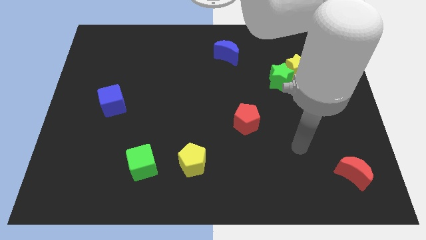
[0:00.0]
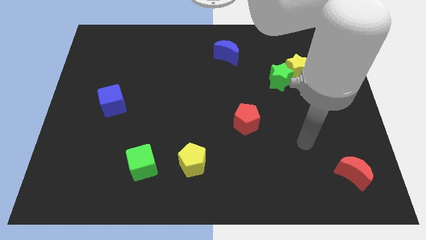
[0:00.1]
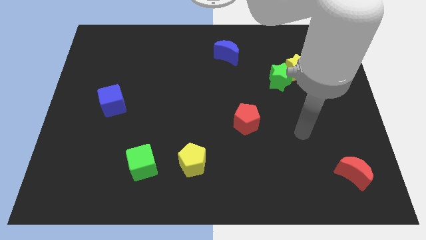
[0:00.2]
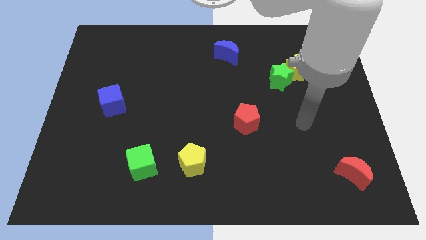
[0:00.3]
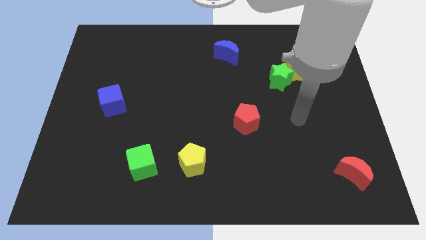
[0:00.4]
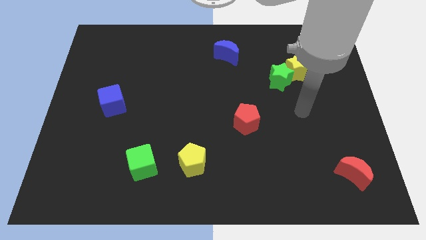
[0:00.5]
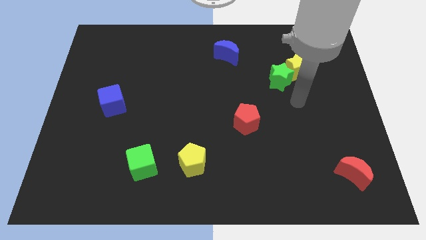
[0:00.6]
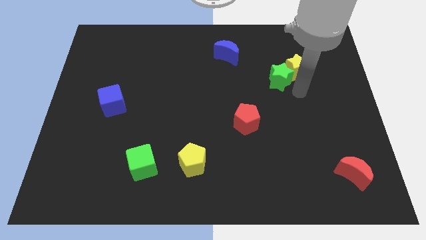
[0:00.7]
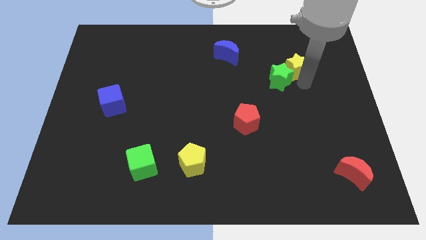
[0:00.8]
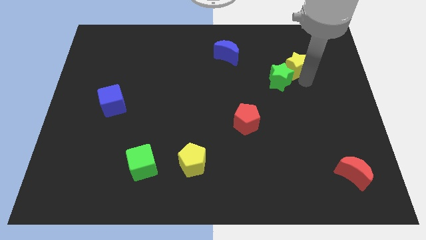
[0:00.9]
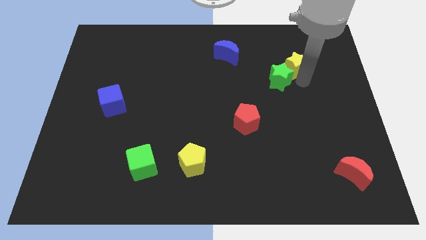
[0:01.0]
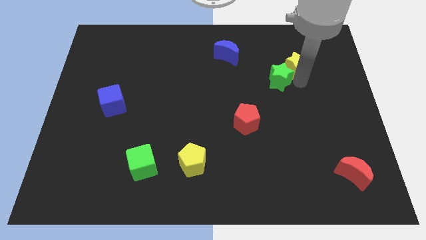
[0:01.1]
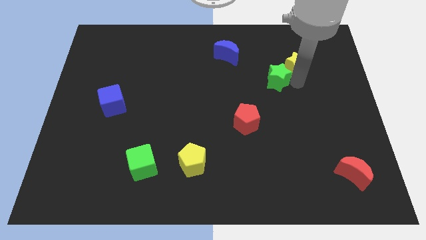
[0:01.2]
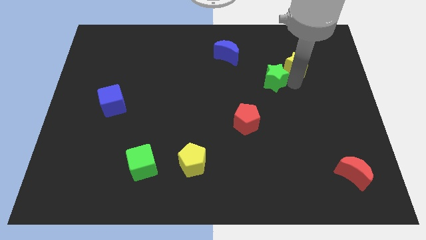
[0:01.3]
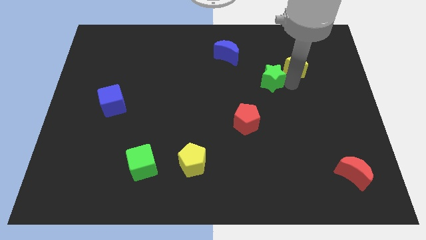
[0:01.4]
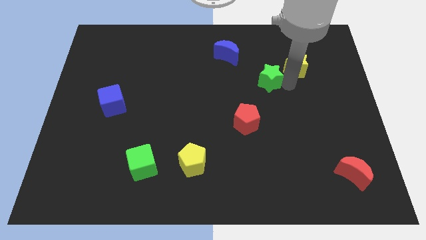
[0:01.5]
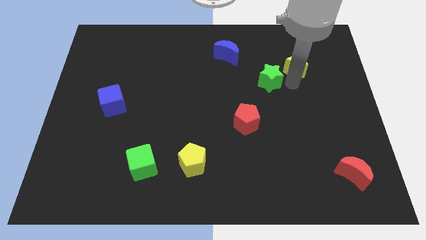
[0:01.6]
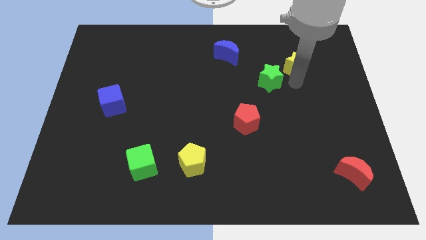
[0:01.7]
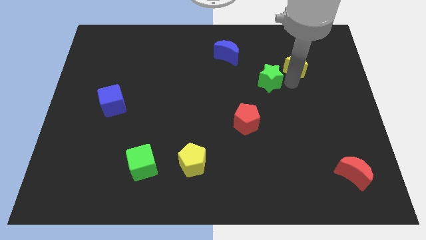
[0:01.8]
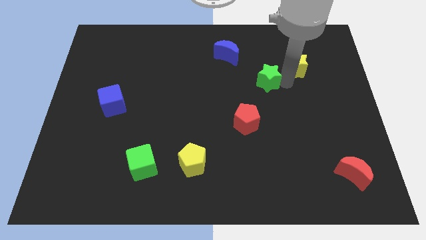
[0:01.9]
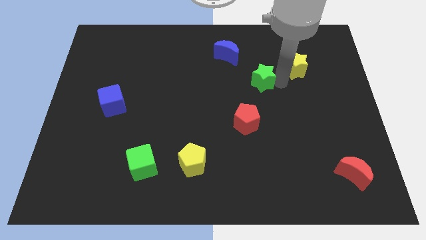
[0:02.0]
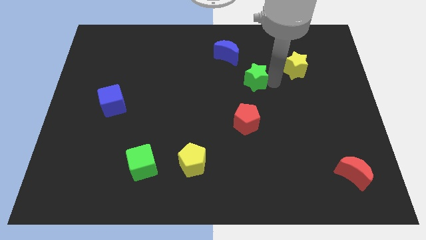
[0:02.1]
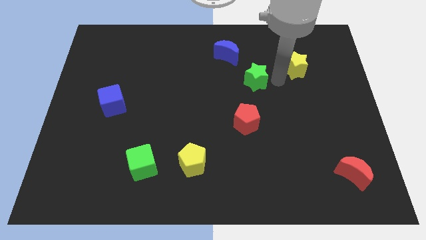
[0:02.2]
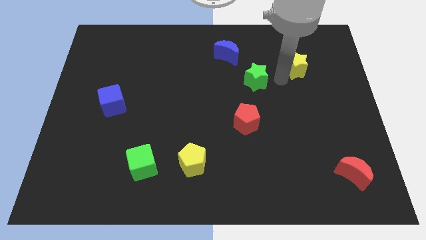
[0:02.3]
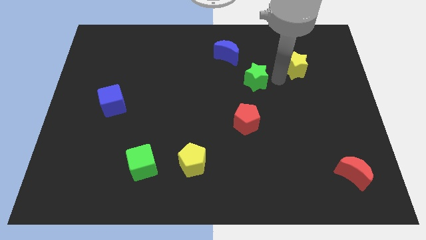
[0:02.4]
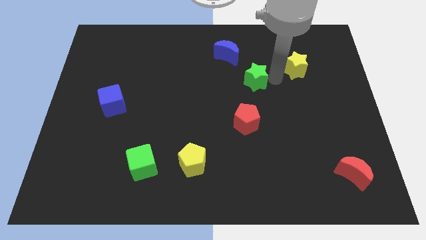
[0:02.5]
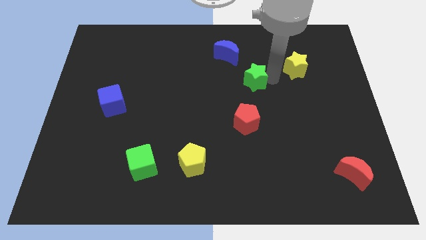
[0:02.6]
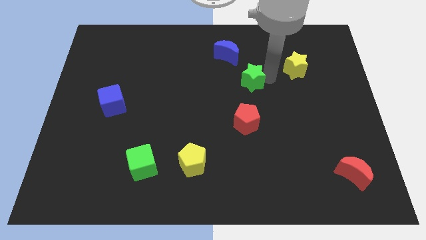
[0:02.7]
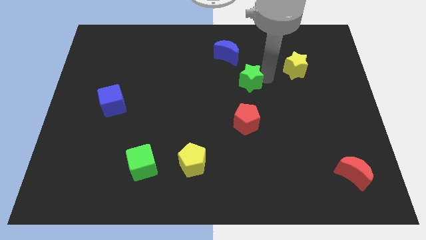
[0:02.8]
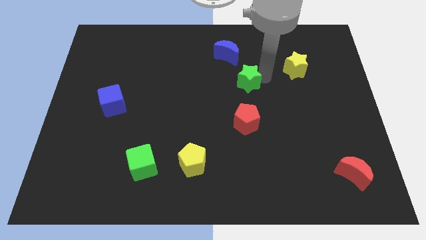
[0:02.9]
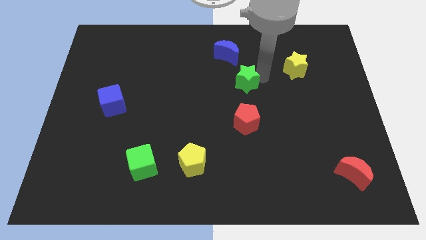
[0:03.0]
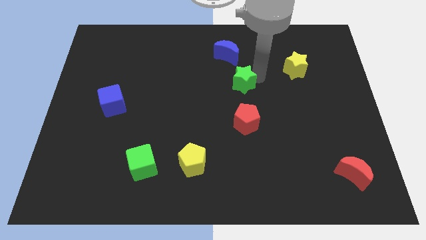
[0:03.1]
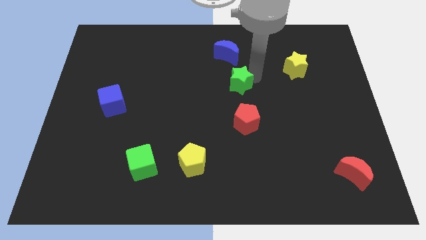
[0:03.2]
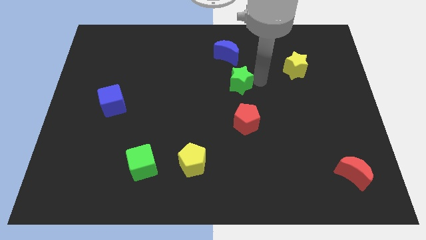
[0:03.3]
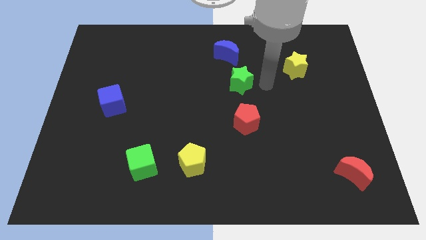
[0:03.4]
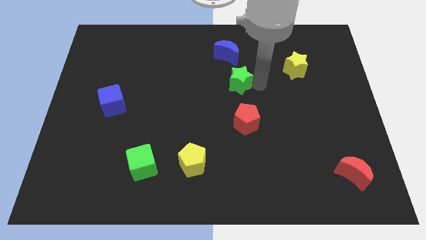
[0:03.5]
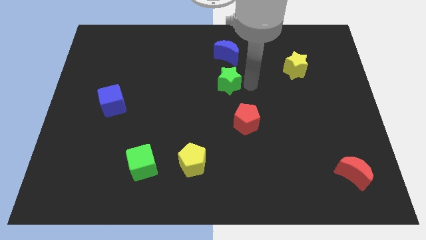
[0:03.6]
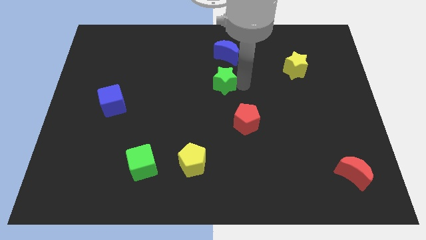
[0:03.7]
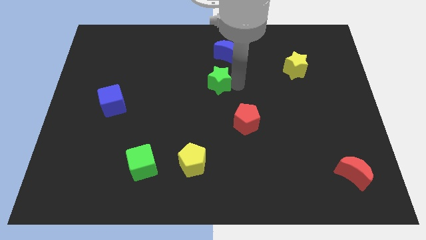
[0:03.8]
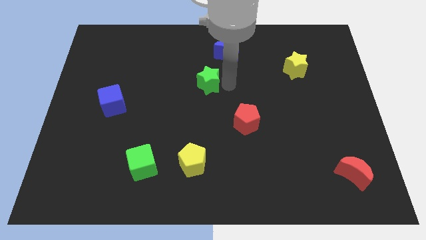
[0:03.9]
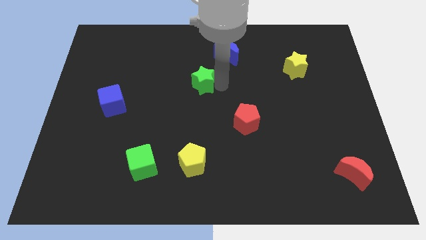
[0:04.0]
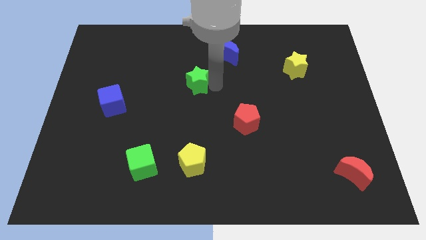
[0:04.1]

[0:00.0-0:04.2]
push the green star left

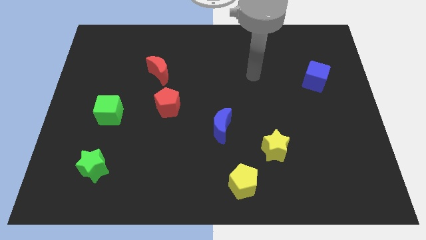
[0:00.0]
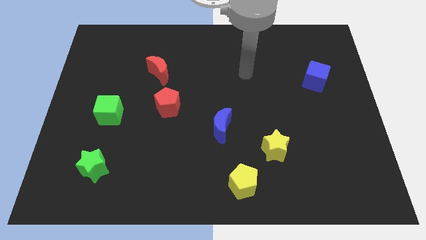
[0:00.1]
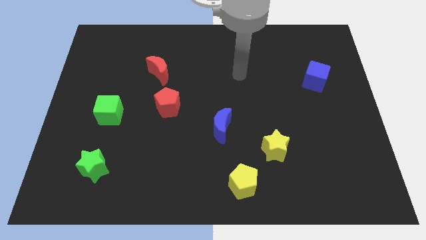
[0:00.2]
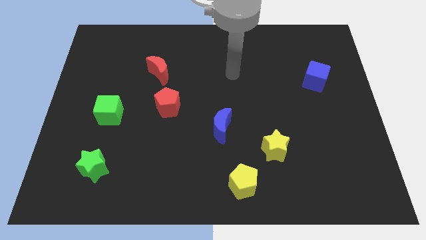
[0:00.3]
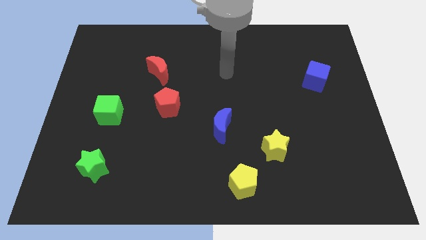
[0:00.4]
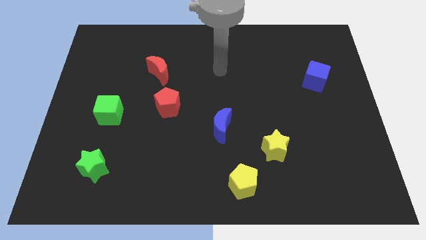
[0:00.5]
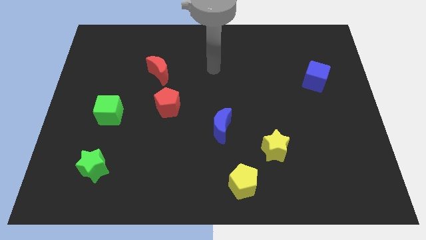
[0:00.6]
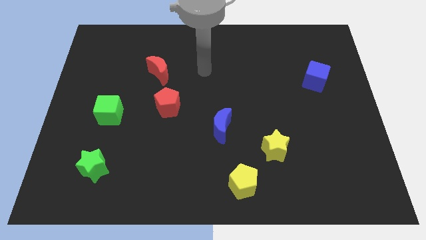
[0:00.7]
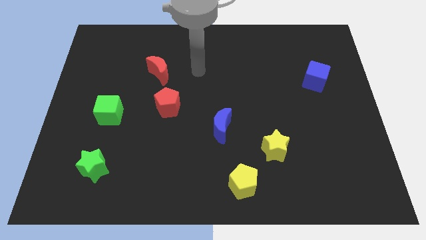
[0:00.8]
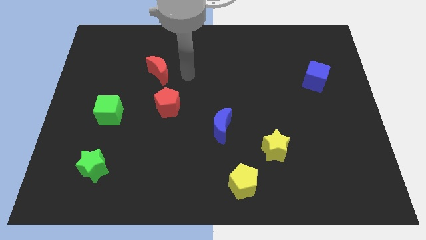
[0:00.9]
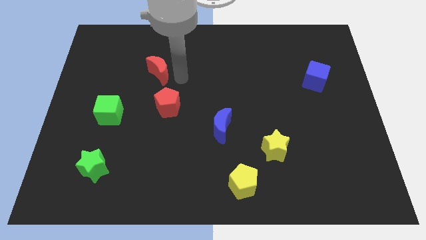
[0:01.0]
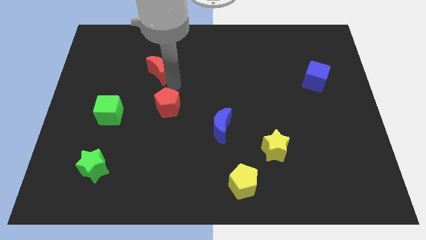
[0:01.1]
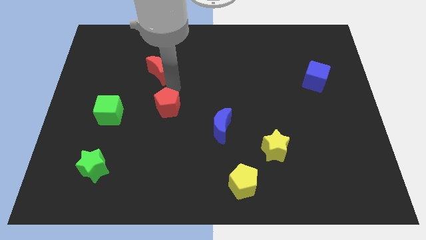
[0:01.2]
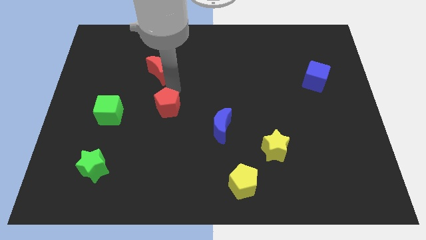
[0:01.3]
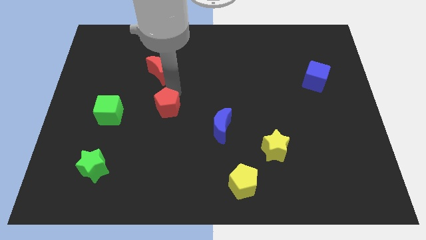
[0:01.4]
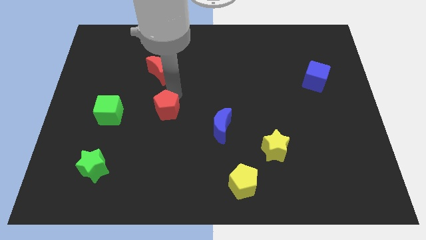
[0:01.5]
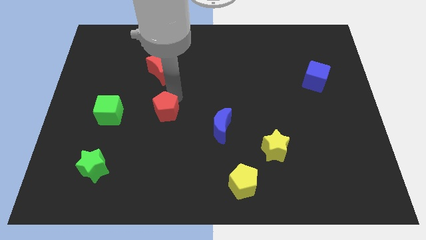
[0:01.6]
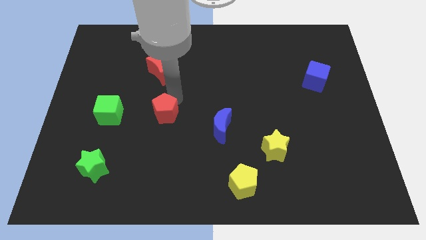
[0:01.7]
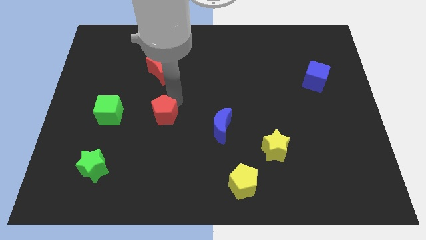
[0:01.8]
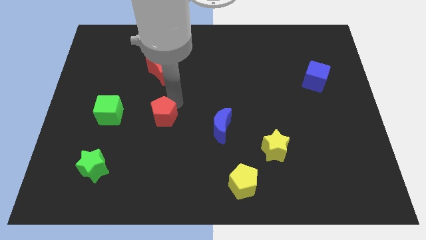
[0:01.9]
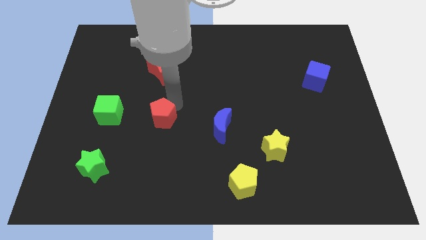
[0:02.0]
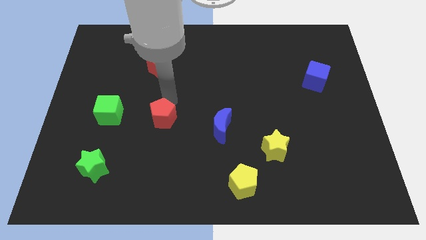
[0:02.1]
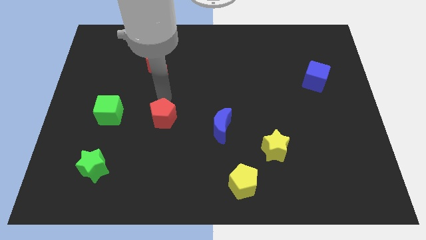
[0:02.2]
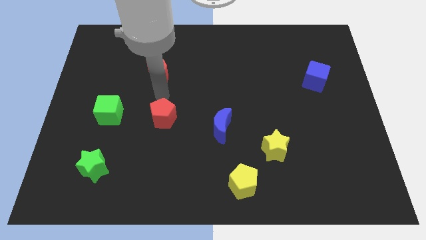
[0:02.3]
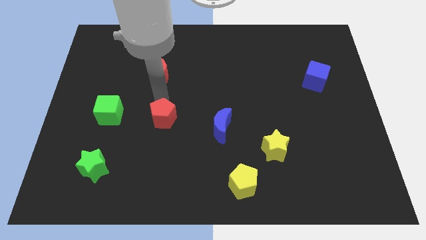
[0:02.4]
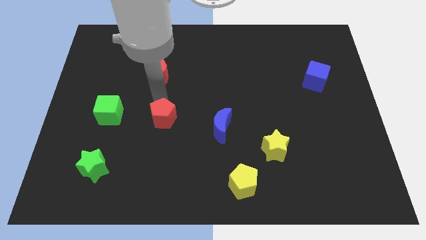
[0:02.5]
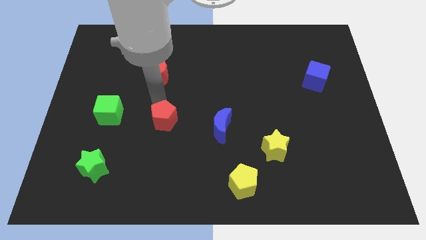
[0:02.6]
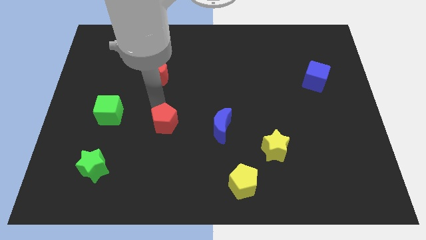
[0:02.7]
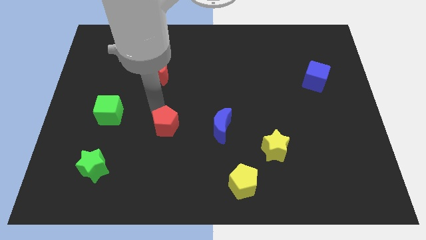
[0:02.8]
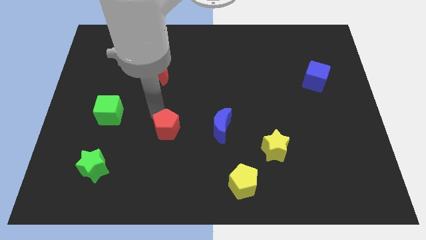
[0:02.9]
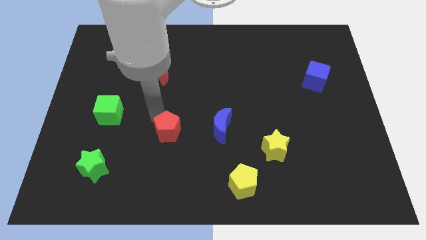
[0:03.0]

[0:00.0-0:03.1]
move the red pentagon slightly downwards

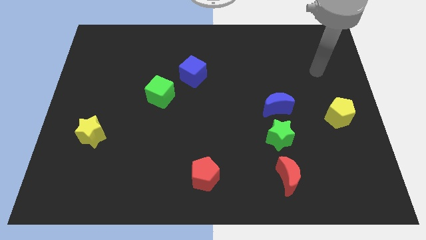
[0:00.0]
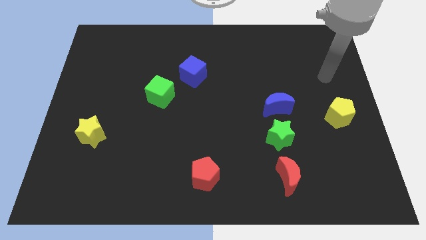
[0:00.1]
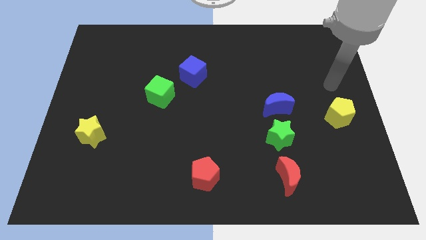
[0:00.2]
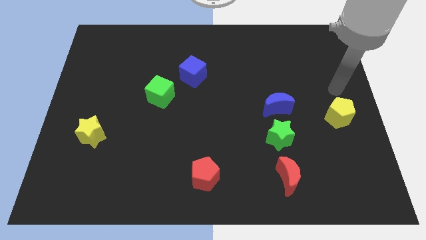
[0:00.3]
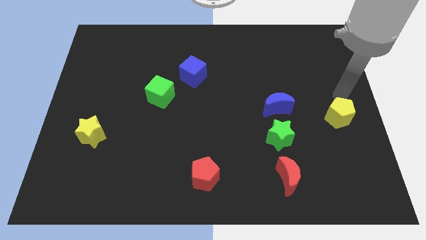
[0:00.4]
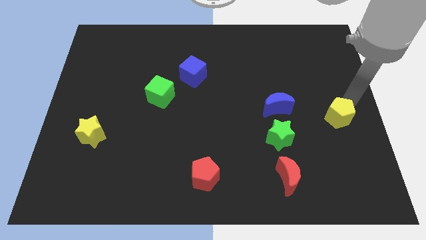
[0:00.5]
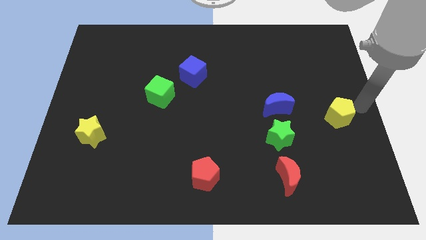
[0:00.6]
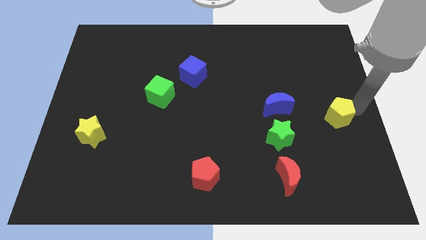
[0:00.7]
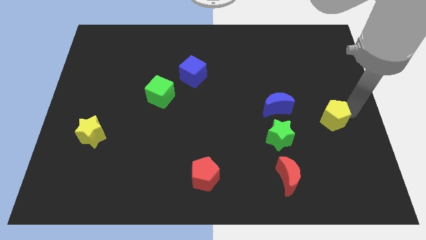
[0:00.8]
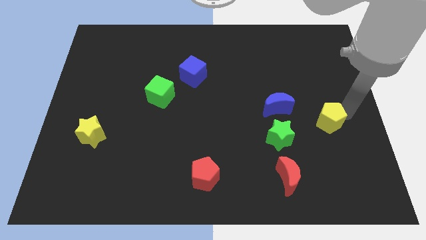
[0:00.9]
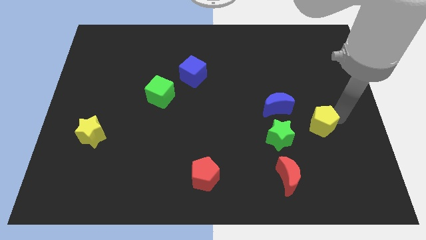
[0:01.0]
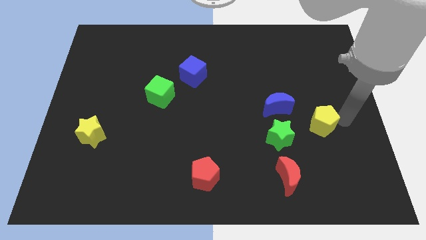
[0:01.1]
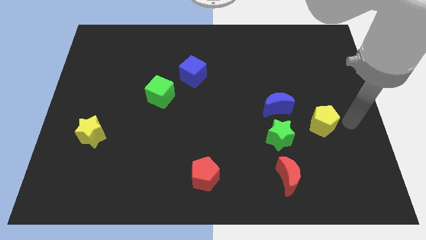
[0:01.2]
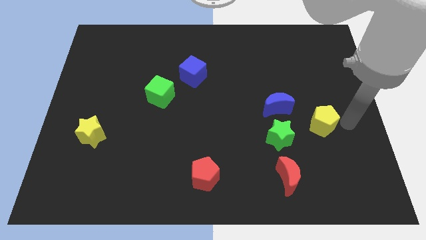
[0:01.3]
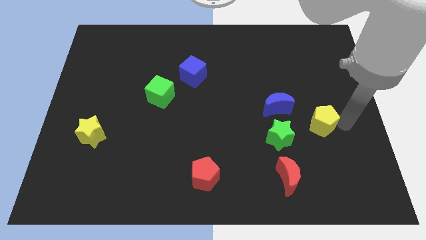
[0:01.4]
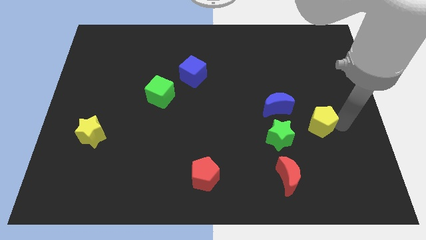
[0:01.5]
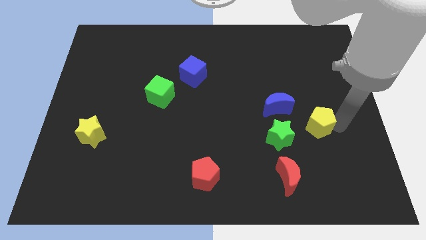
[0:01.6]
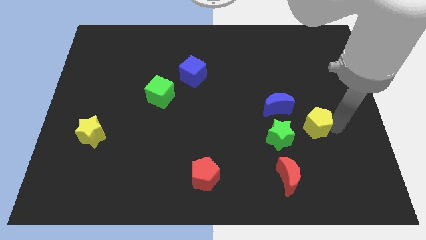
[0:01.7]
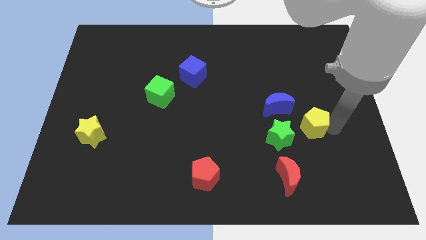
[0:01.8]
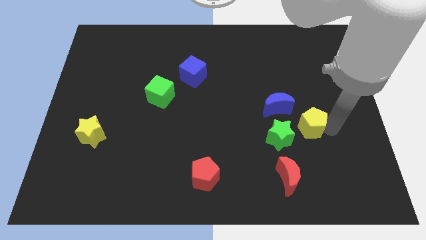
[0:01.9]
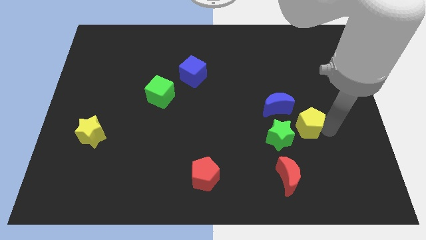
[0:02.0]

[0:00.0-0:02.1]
move the yellow pentagon left a little bit
